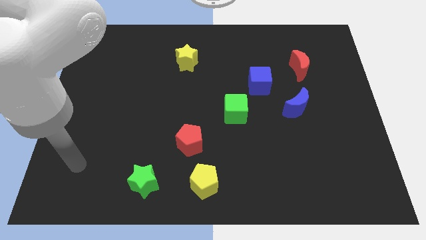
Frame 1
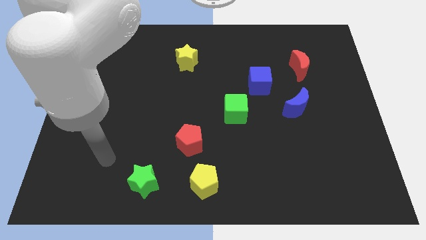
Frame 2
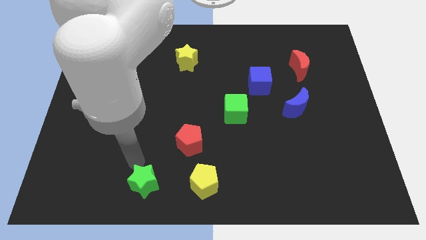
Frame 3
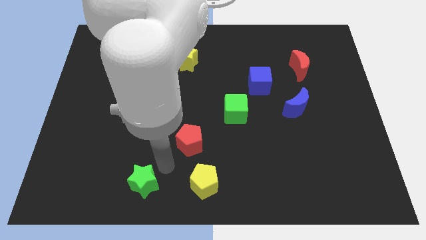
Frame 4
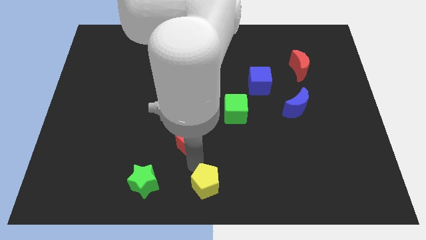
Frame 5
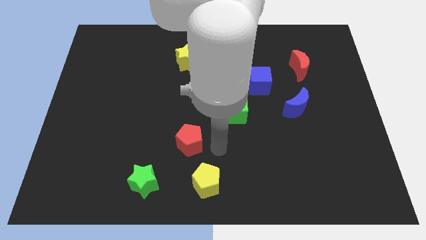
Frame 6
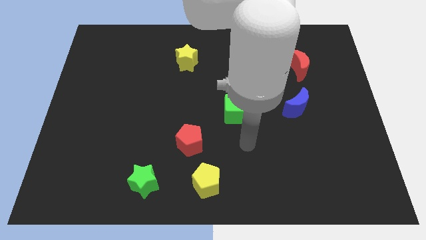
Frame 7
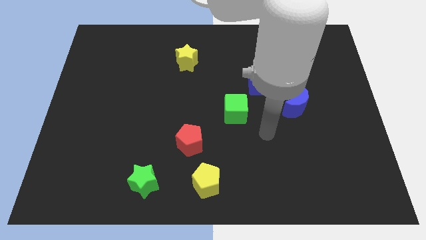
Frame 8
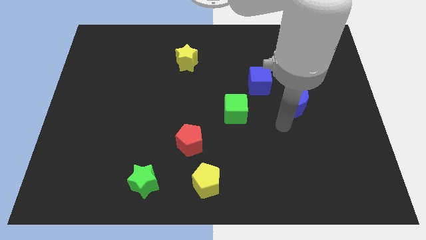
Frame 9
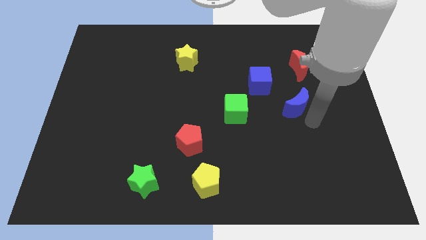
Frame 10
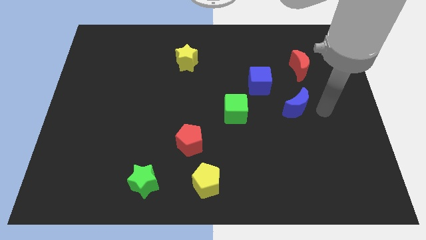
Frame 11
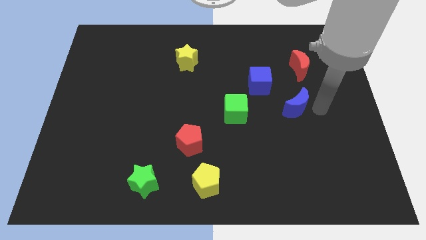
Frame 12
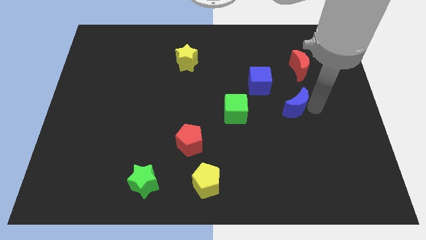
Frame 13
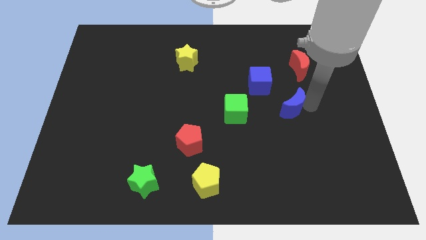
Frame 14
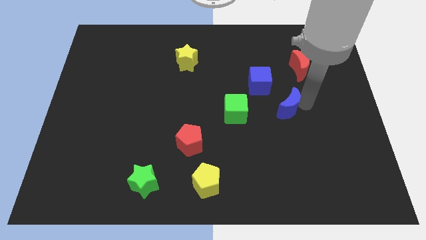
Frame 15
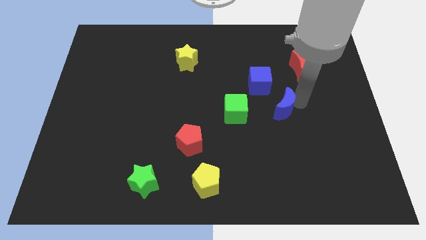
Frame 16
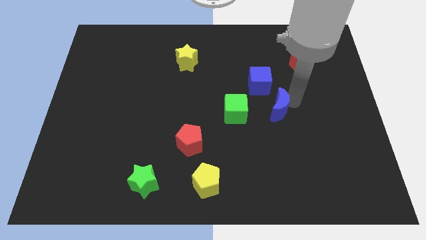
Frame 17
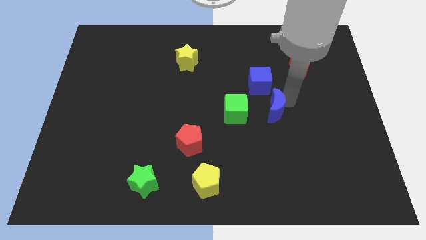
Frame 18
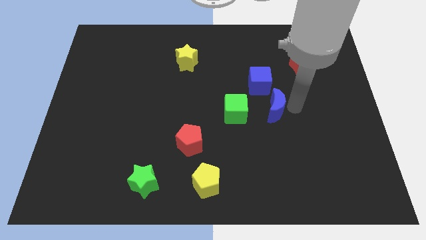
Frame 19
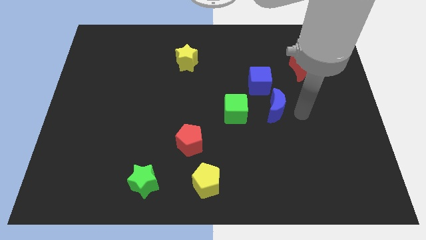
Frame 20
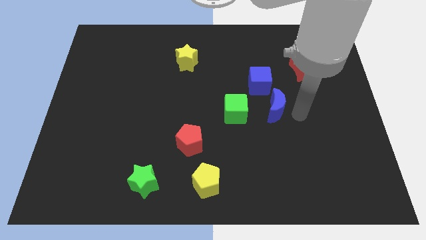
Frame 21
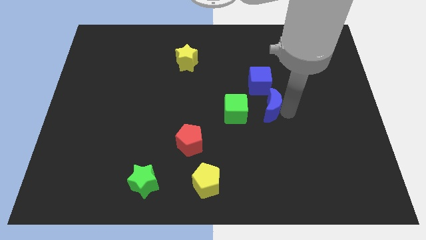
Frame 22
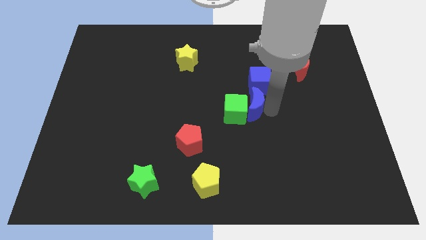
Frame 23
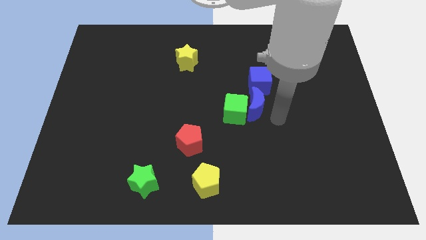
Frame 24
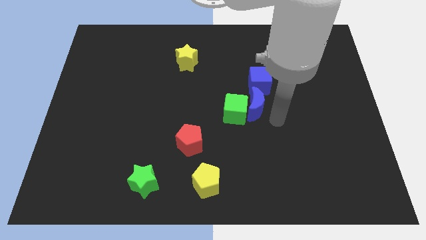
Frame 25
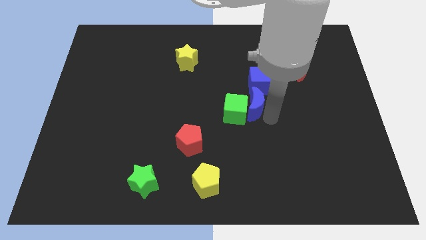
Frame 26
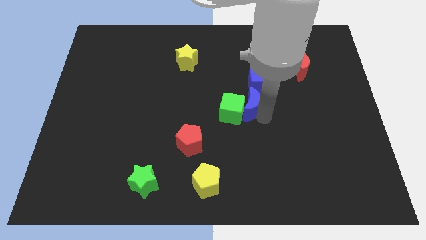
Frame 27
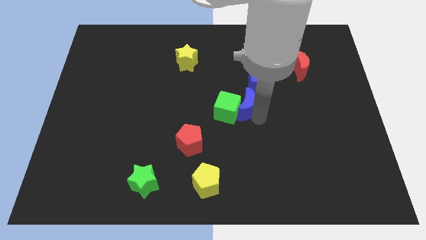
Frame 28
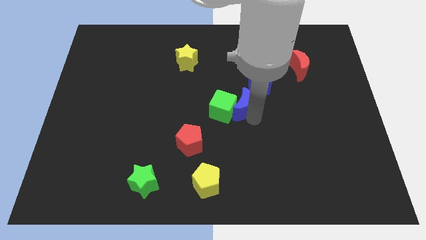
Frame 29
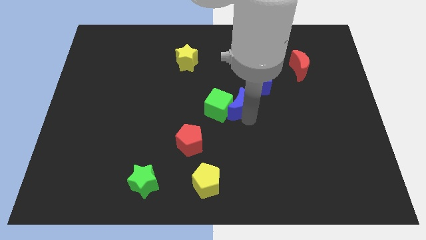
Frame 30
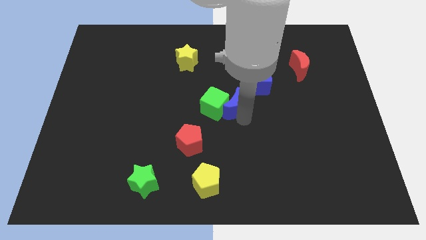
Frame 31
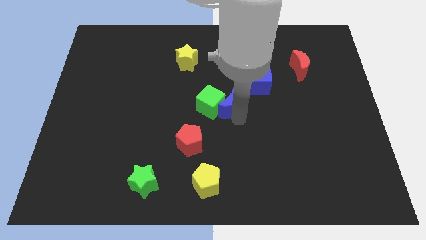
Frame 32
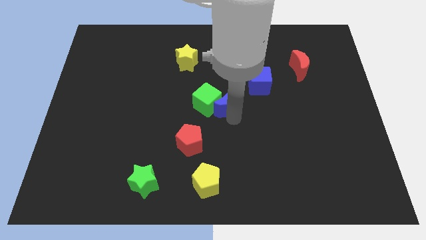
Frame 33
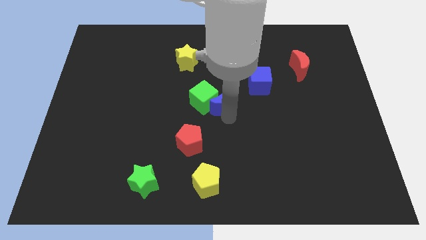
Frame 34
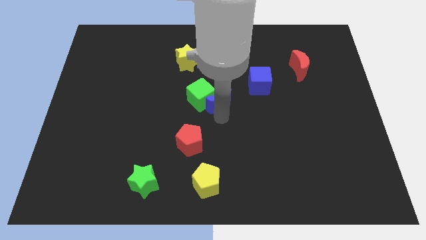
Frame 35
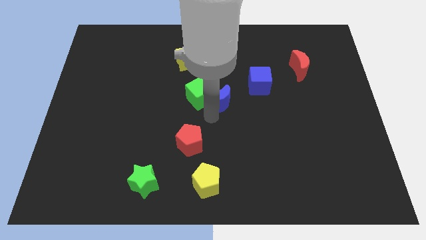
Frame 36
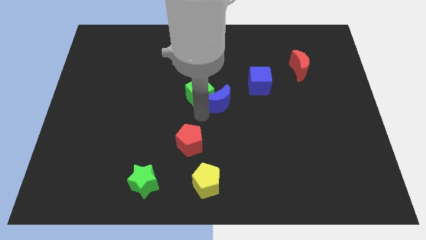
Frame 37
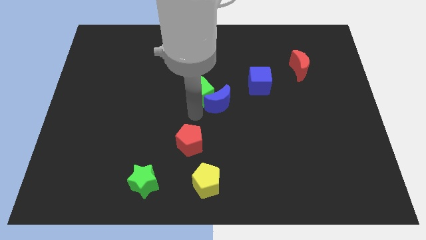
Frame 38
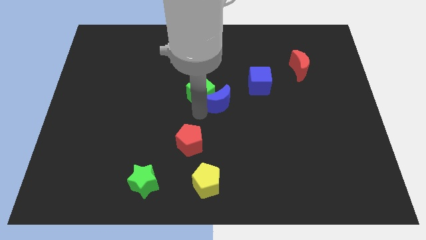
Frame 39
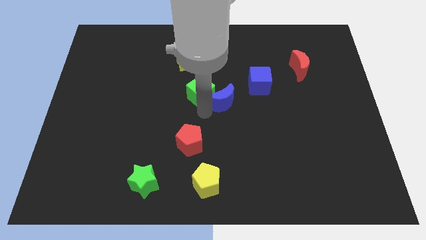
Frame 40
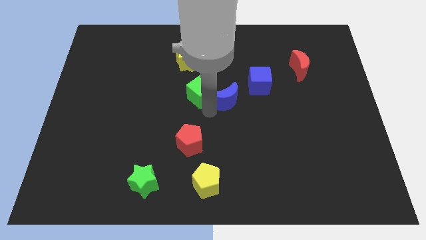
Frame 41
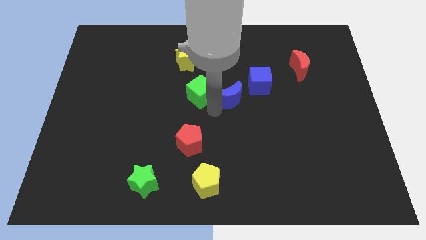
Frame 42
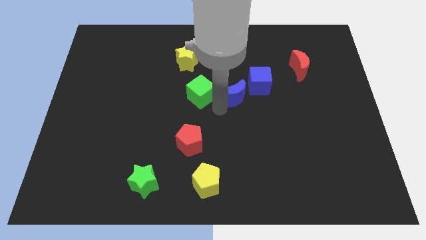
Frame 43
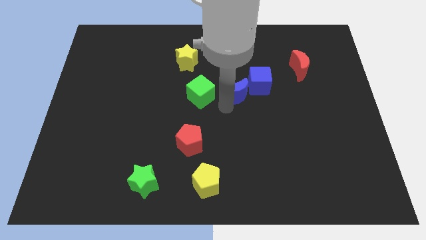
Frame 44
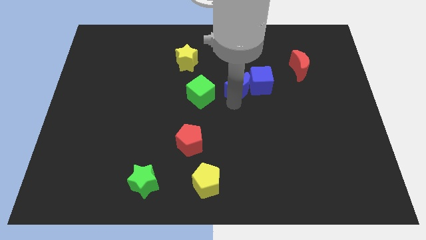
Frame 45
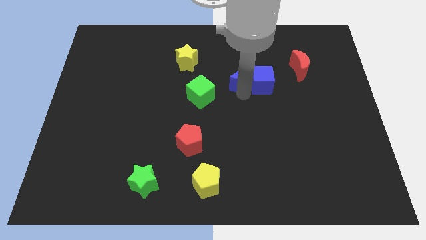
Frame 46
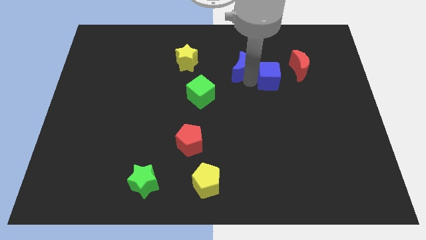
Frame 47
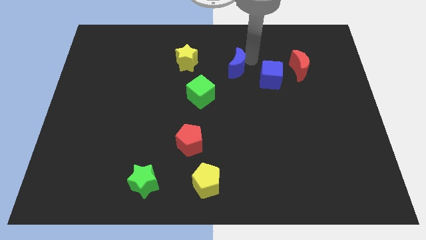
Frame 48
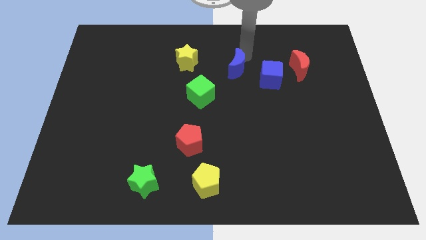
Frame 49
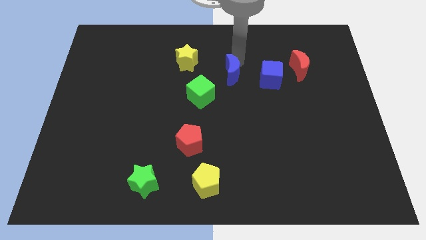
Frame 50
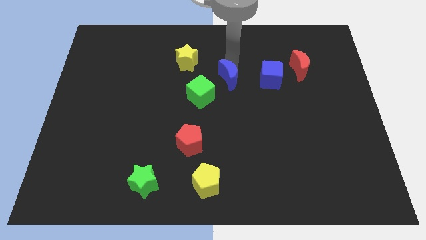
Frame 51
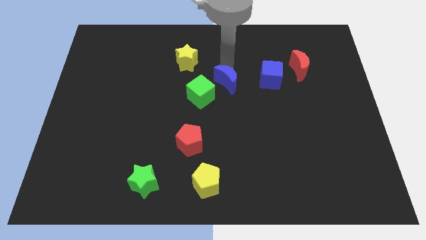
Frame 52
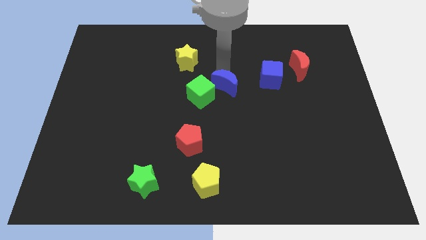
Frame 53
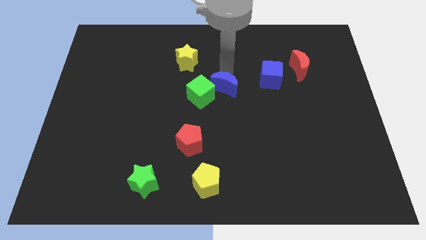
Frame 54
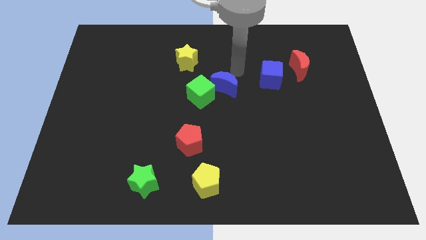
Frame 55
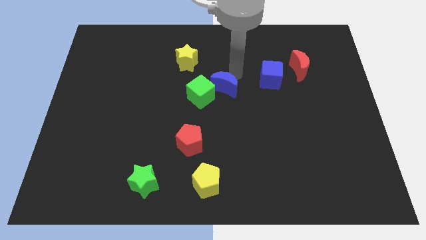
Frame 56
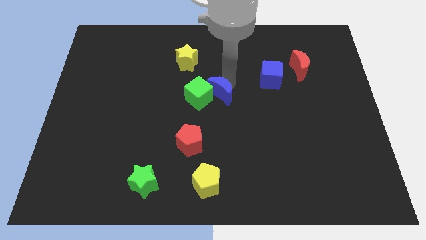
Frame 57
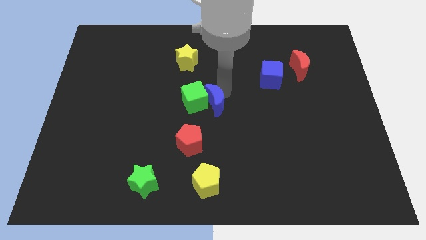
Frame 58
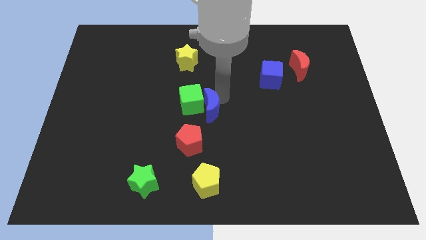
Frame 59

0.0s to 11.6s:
move the blue moon to the left

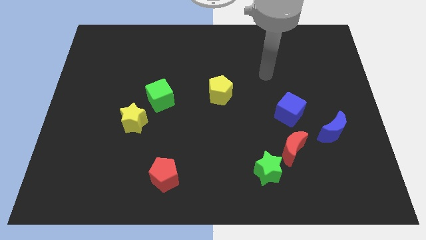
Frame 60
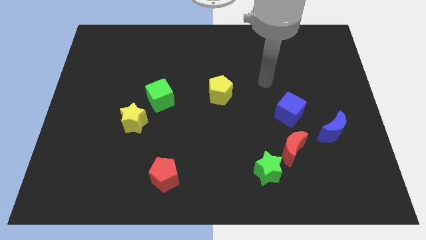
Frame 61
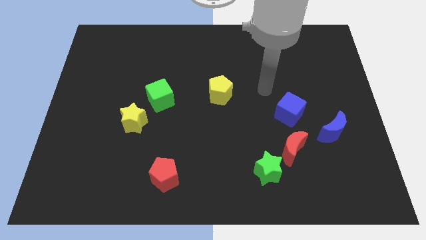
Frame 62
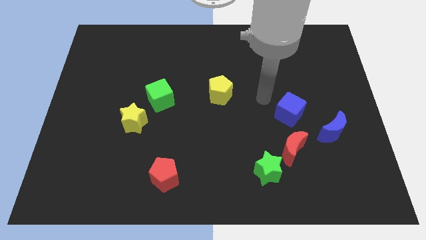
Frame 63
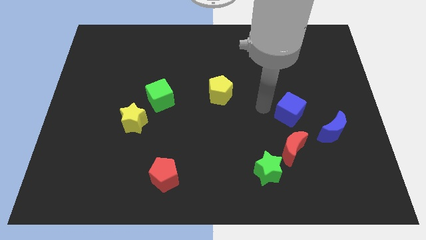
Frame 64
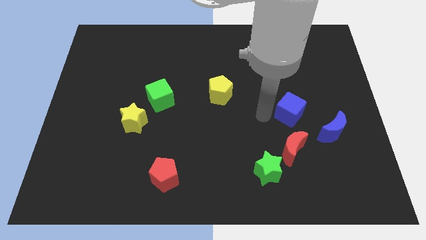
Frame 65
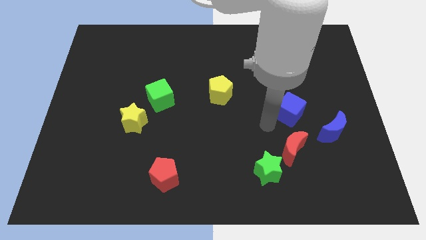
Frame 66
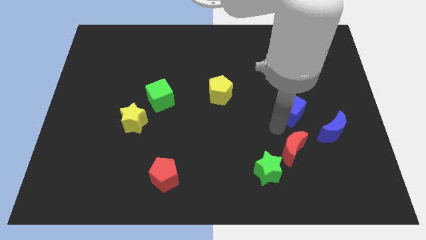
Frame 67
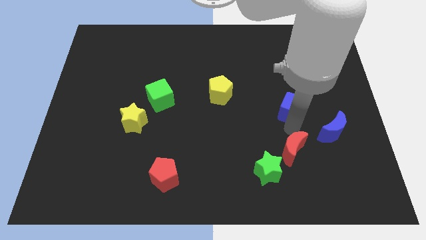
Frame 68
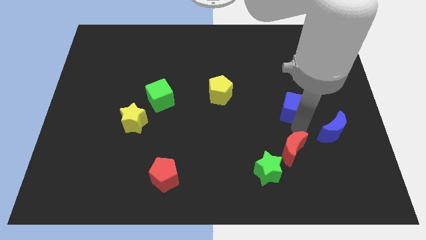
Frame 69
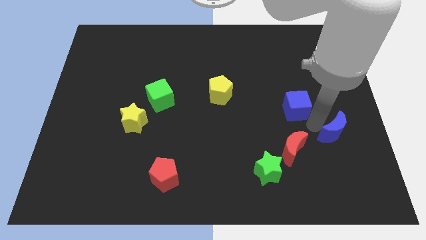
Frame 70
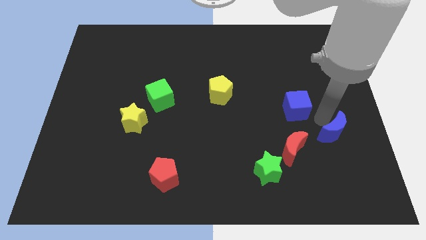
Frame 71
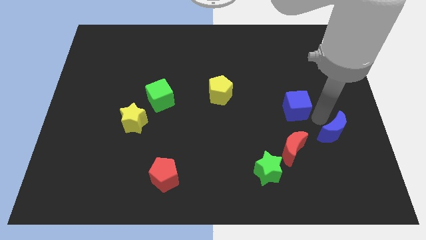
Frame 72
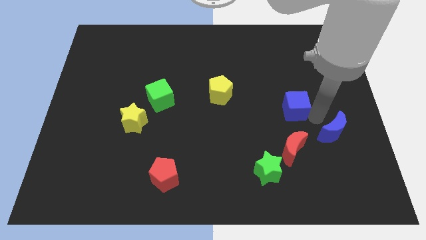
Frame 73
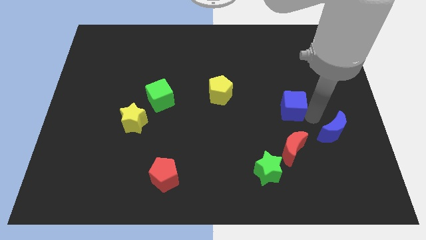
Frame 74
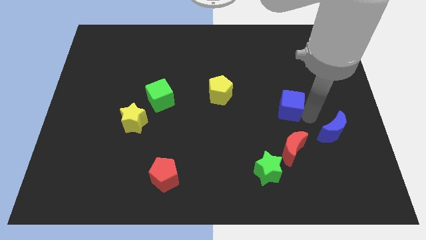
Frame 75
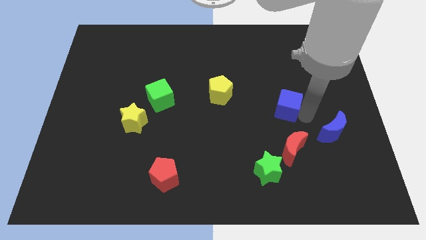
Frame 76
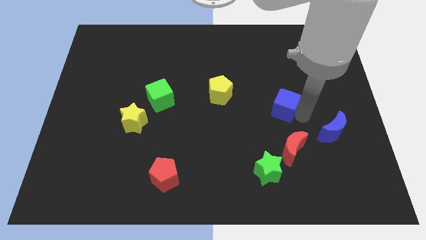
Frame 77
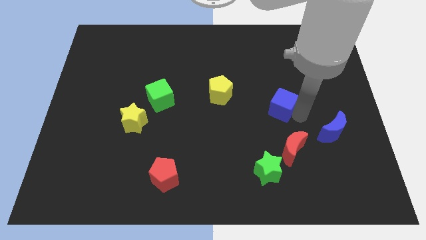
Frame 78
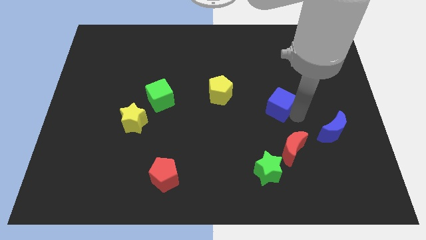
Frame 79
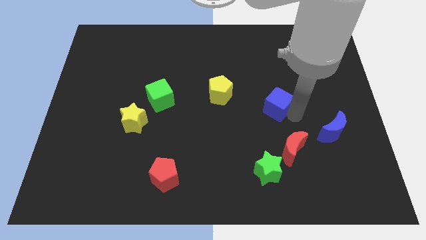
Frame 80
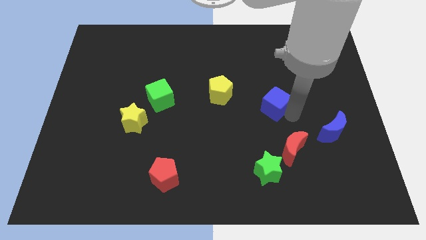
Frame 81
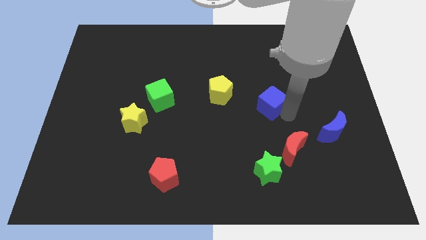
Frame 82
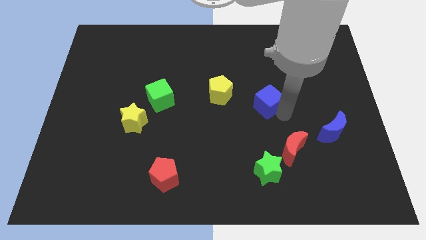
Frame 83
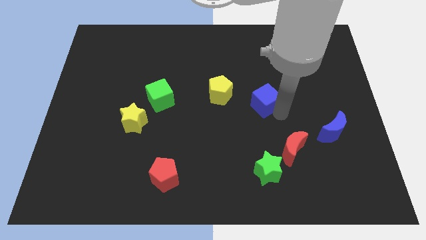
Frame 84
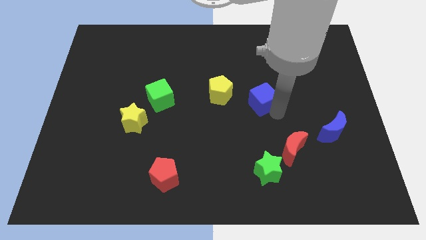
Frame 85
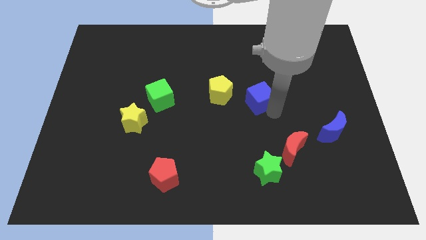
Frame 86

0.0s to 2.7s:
slide the blue cube upwards and then to the left slightly

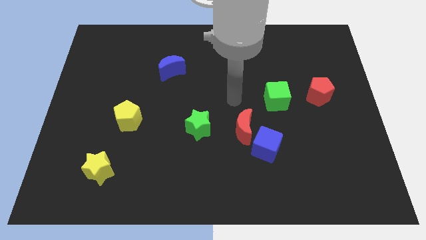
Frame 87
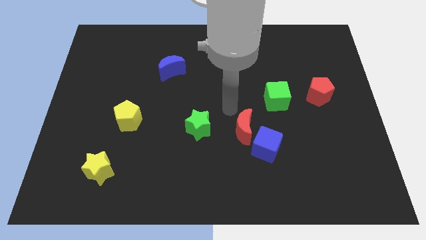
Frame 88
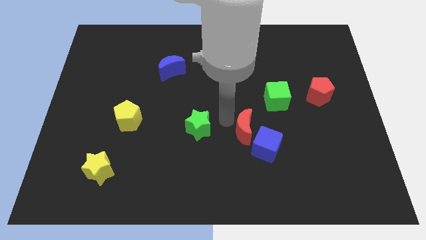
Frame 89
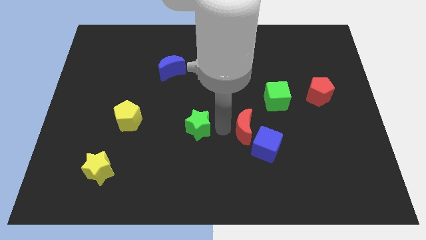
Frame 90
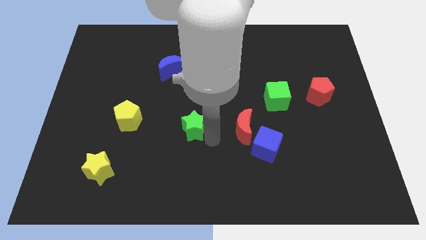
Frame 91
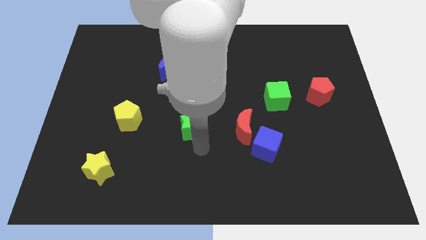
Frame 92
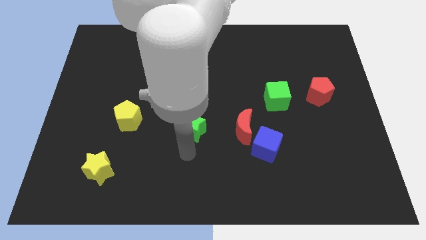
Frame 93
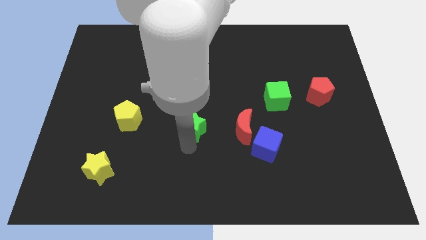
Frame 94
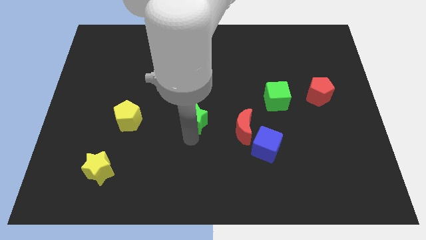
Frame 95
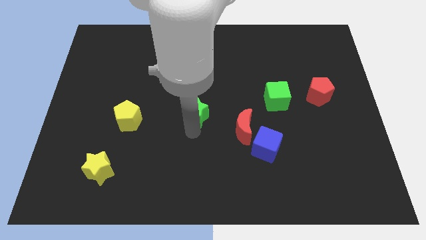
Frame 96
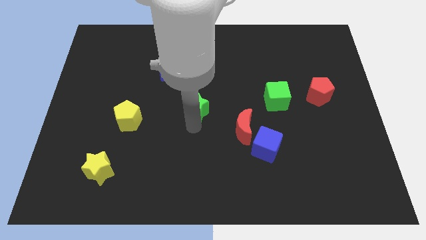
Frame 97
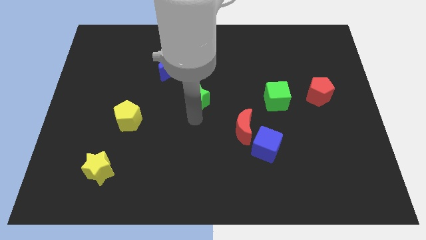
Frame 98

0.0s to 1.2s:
slightly push the green star upwards
